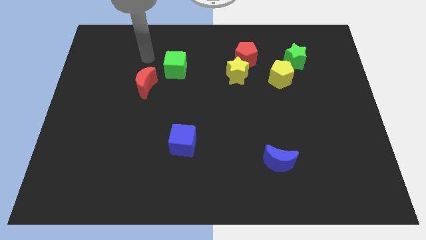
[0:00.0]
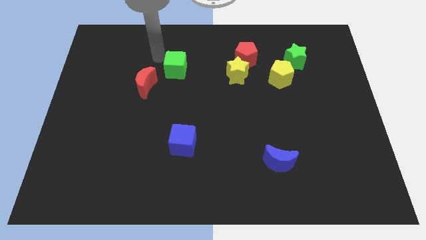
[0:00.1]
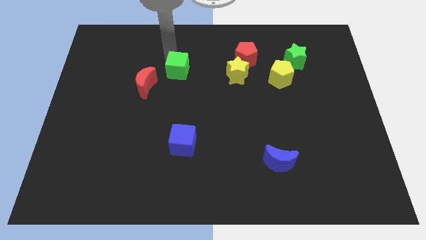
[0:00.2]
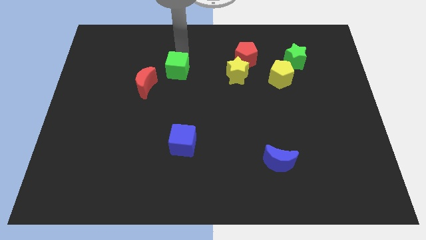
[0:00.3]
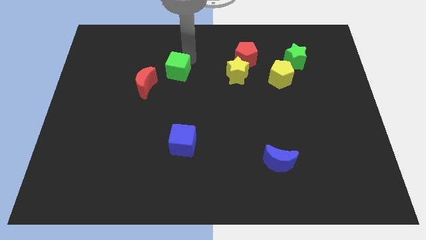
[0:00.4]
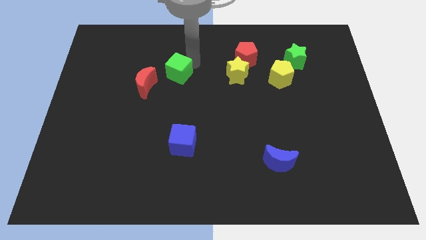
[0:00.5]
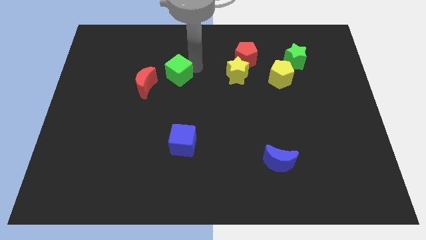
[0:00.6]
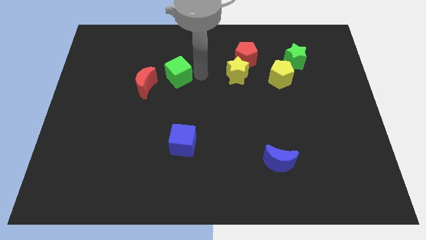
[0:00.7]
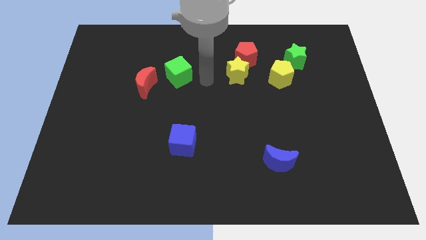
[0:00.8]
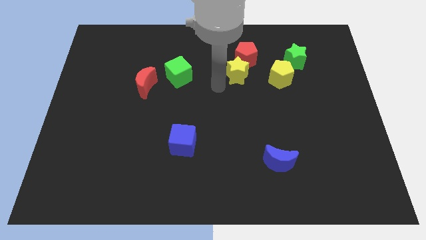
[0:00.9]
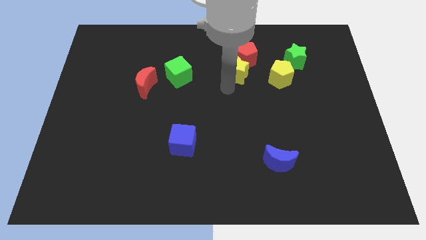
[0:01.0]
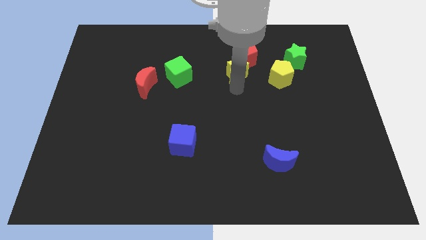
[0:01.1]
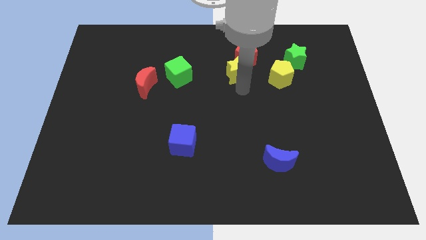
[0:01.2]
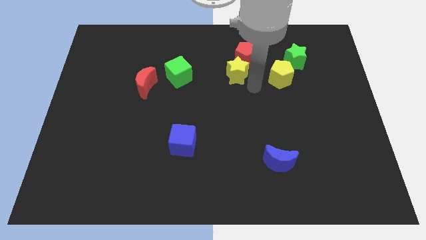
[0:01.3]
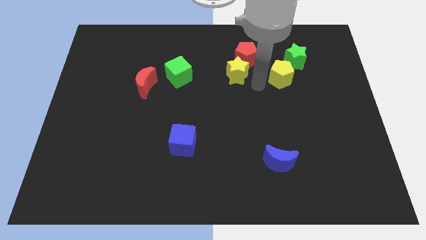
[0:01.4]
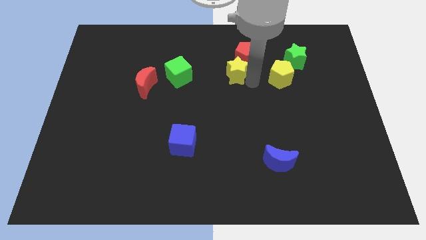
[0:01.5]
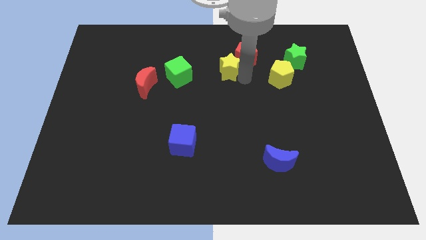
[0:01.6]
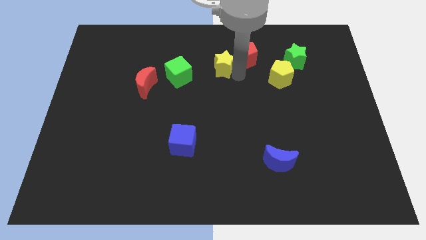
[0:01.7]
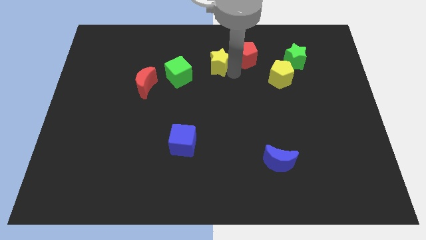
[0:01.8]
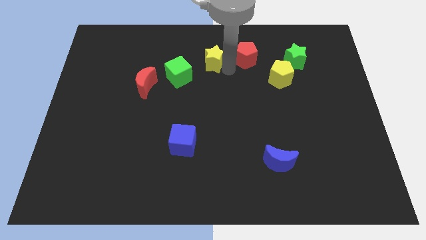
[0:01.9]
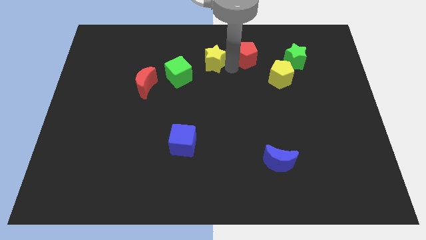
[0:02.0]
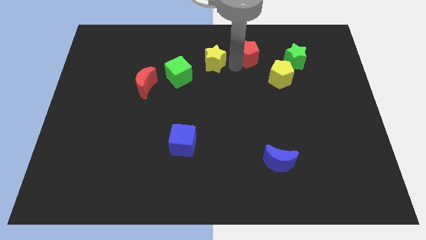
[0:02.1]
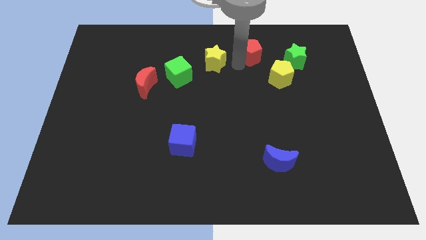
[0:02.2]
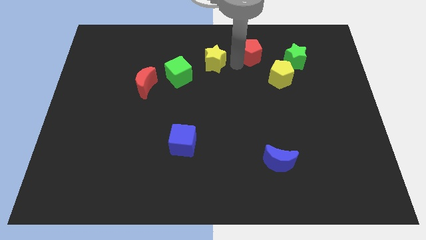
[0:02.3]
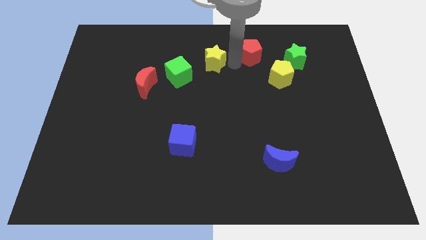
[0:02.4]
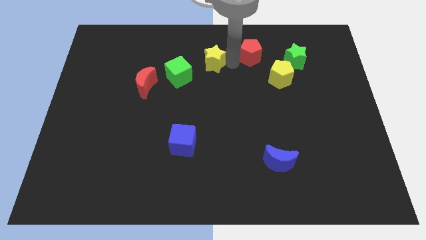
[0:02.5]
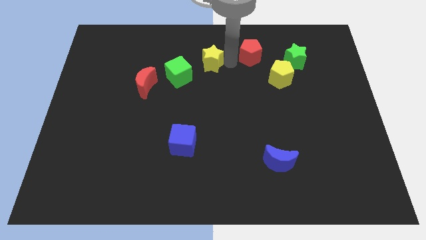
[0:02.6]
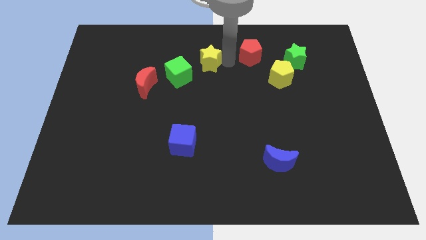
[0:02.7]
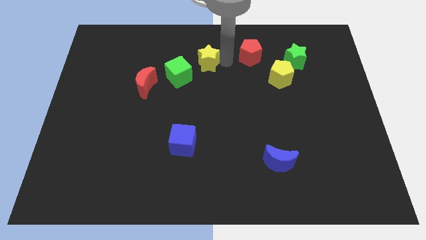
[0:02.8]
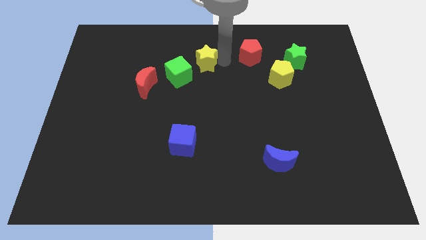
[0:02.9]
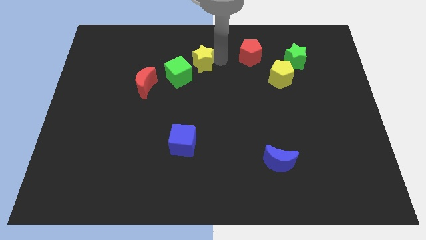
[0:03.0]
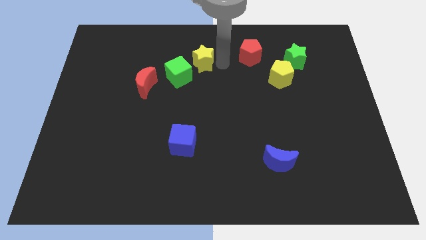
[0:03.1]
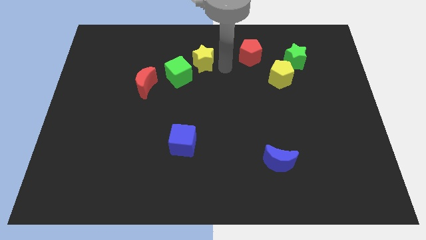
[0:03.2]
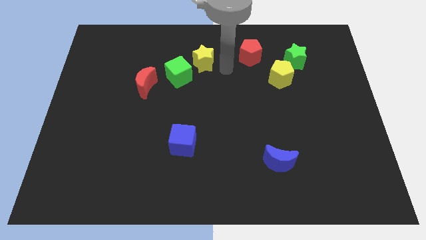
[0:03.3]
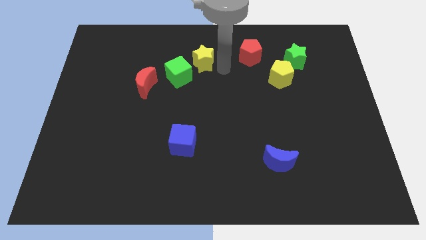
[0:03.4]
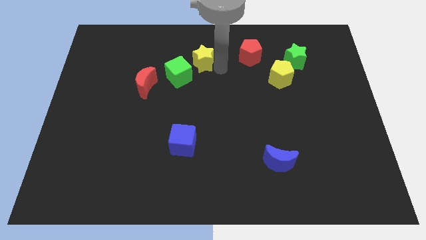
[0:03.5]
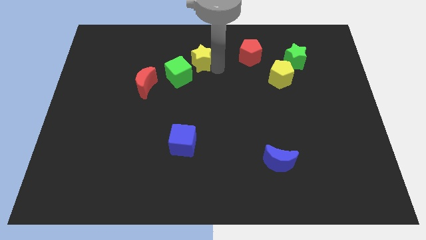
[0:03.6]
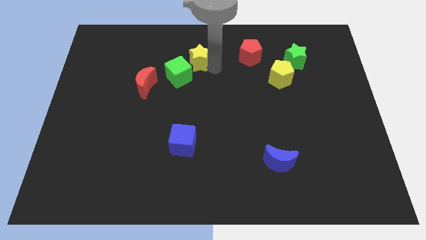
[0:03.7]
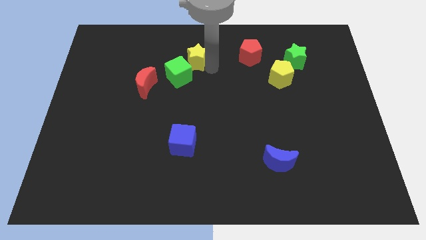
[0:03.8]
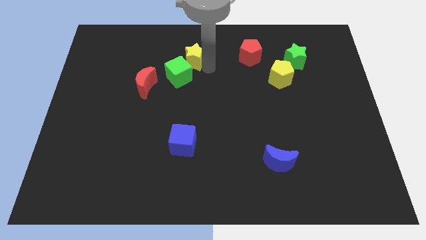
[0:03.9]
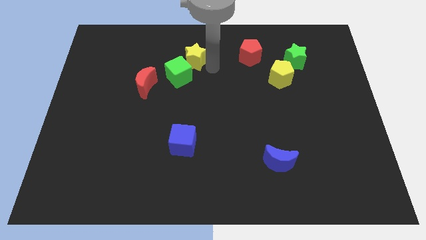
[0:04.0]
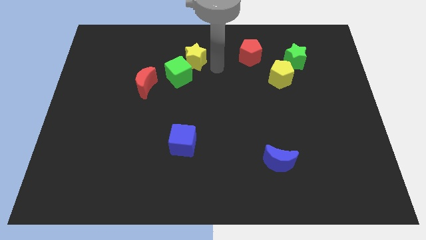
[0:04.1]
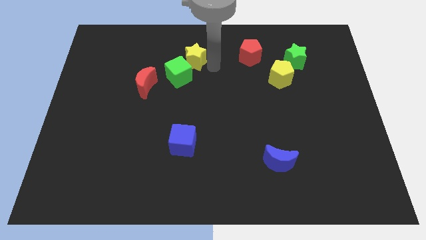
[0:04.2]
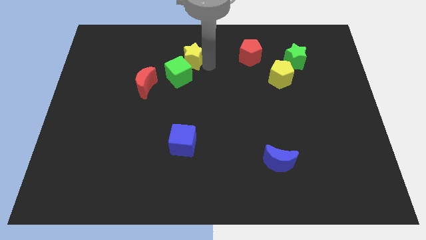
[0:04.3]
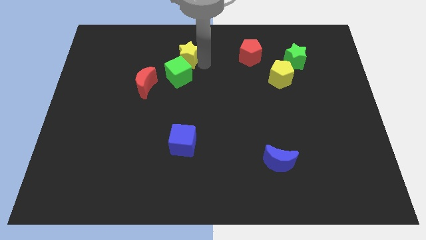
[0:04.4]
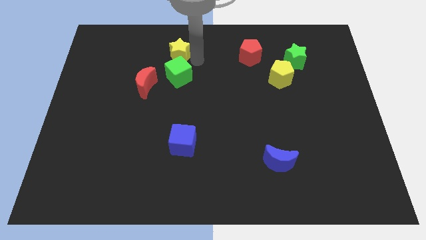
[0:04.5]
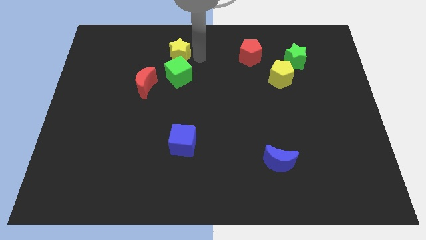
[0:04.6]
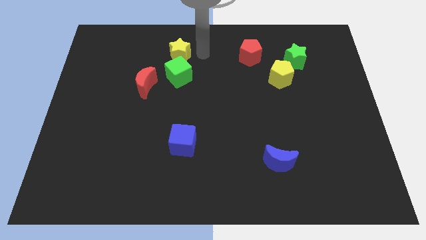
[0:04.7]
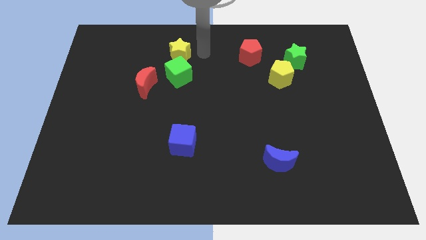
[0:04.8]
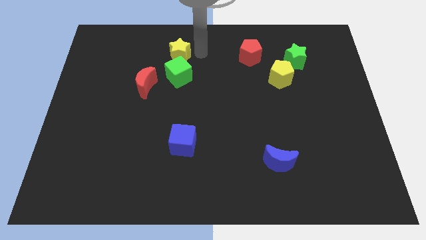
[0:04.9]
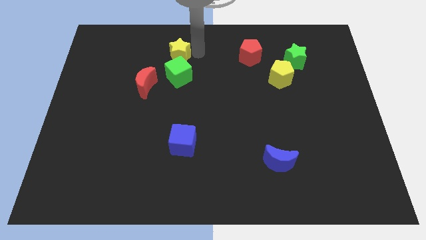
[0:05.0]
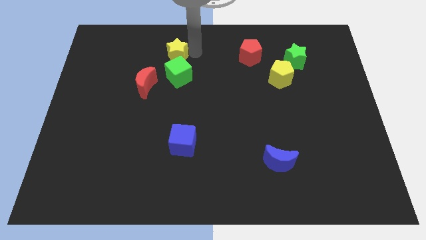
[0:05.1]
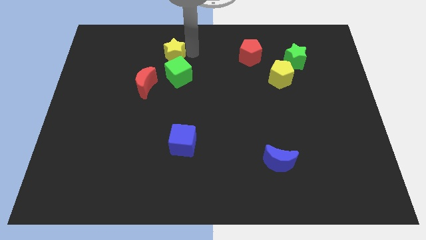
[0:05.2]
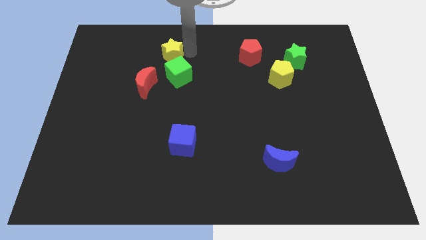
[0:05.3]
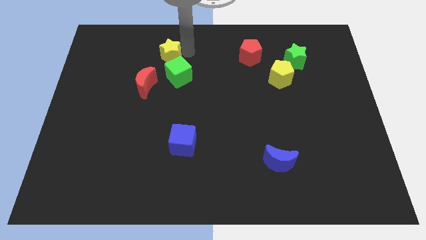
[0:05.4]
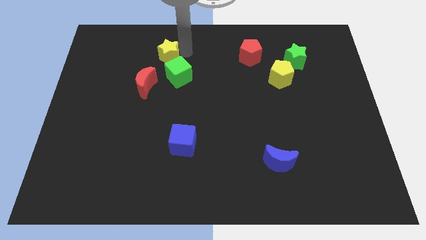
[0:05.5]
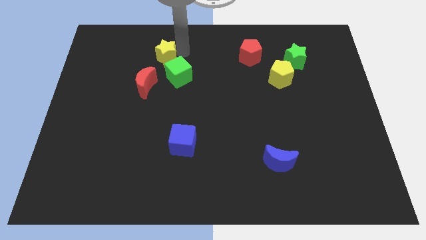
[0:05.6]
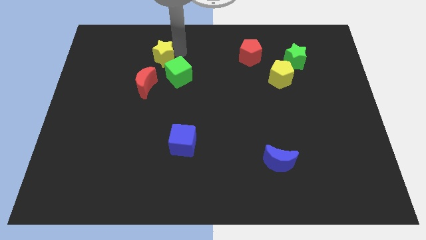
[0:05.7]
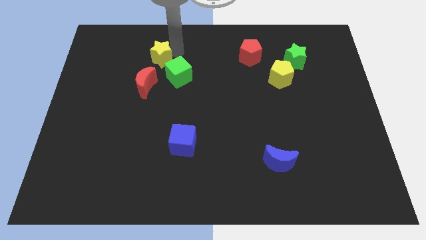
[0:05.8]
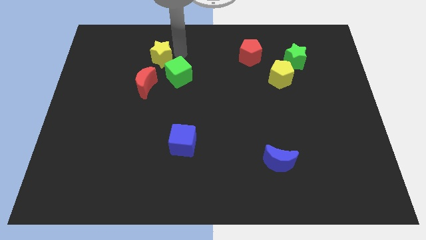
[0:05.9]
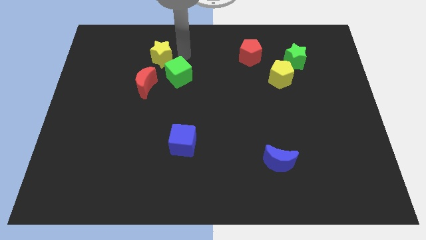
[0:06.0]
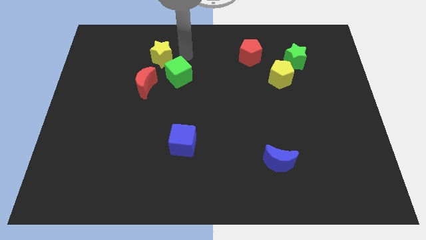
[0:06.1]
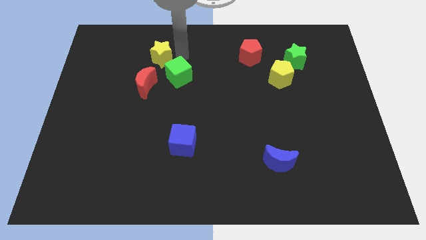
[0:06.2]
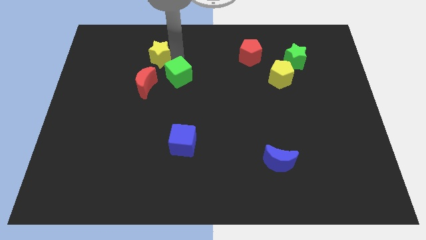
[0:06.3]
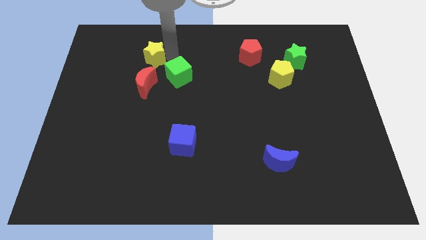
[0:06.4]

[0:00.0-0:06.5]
slide the yellow star to the left

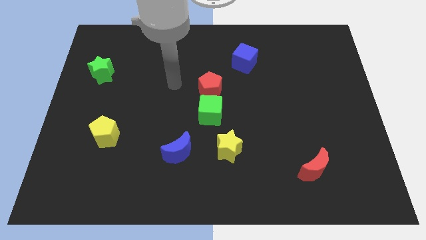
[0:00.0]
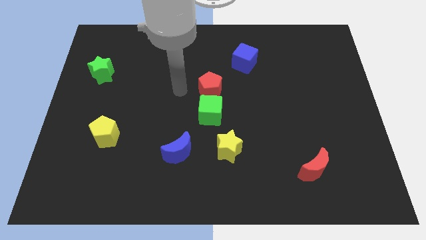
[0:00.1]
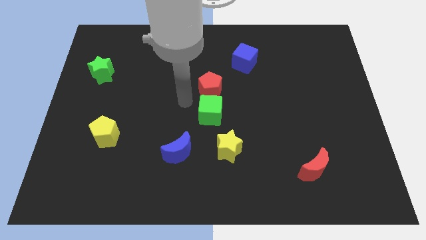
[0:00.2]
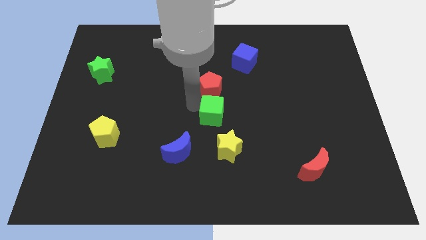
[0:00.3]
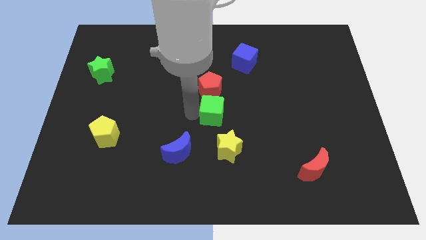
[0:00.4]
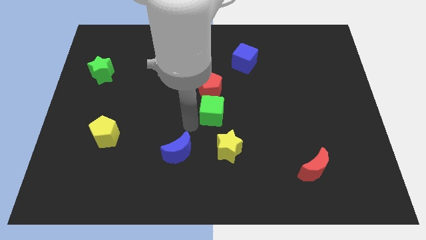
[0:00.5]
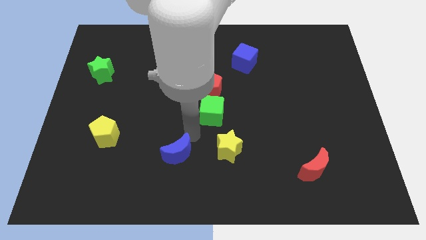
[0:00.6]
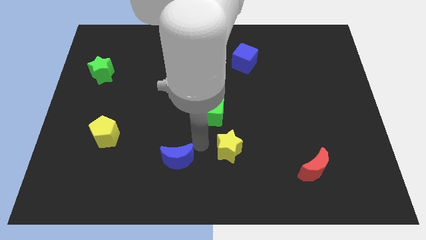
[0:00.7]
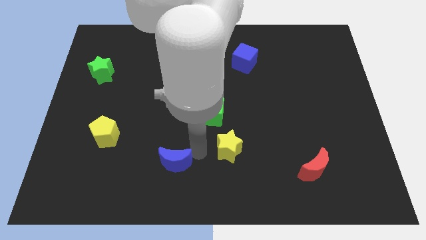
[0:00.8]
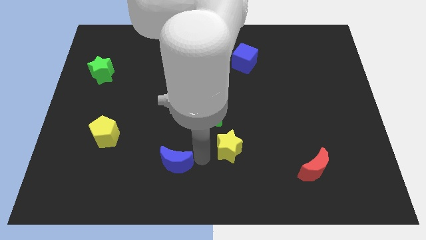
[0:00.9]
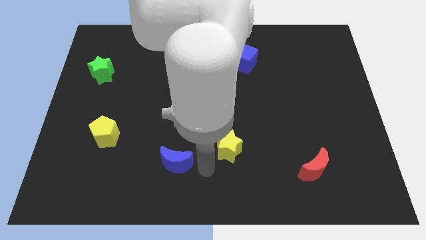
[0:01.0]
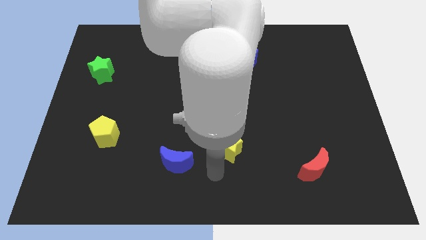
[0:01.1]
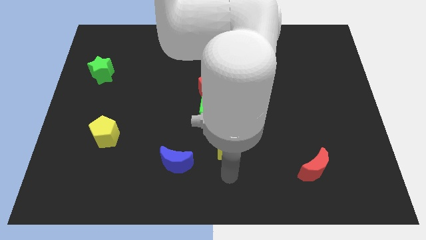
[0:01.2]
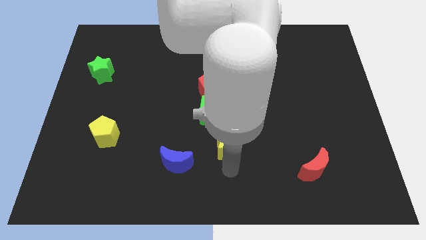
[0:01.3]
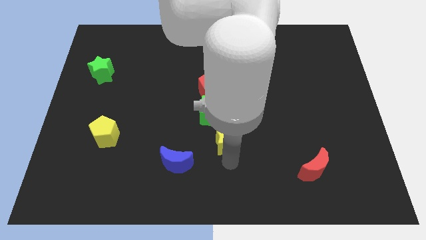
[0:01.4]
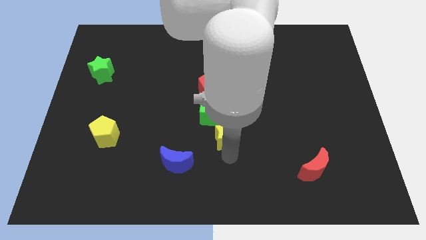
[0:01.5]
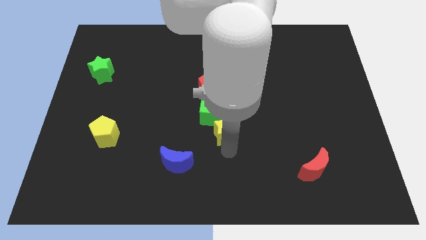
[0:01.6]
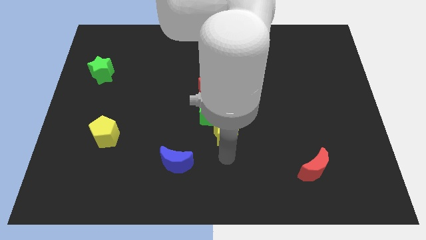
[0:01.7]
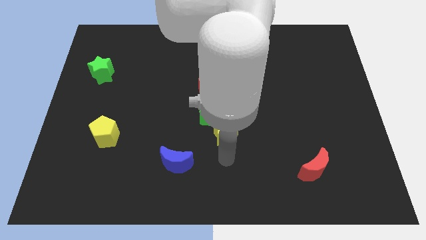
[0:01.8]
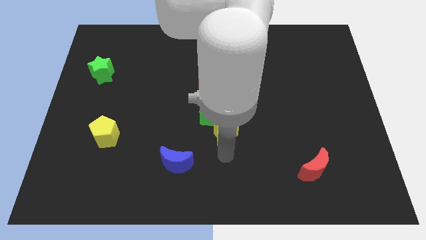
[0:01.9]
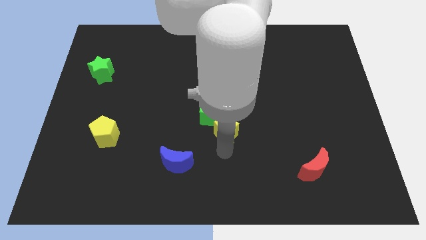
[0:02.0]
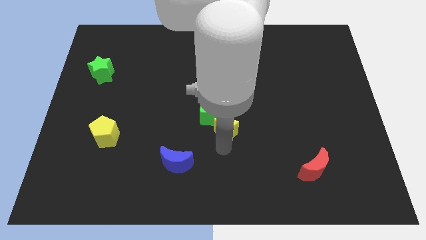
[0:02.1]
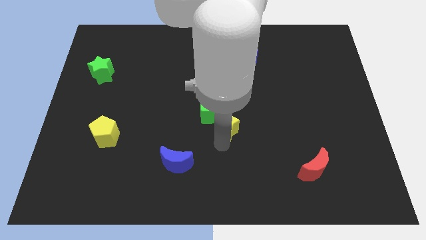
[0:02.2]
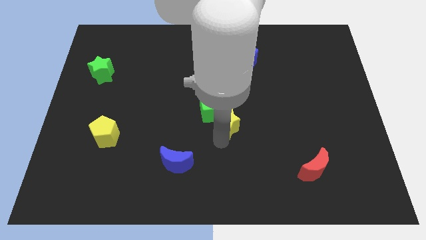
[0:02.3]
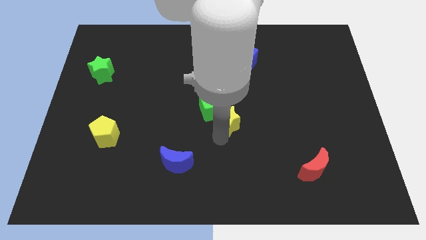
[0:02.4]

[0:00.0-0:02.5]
move the yellow star upwards somewhat
